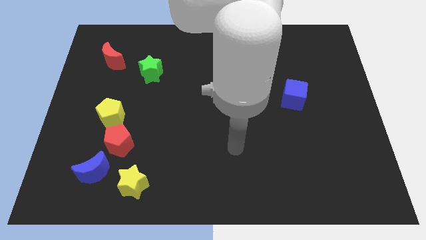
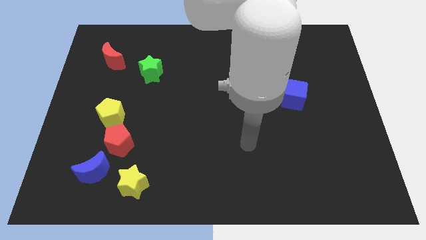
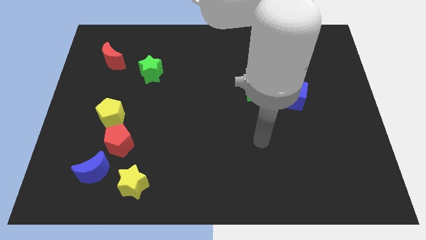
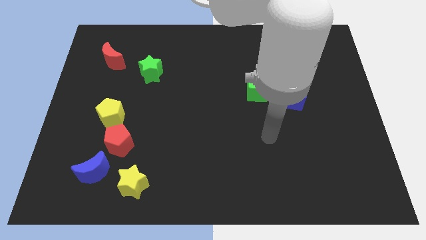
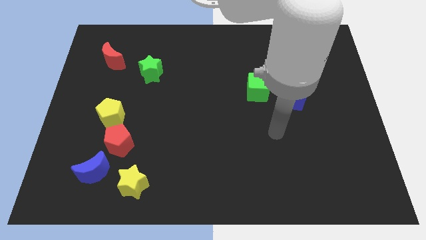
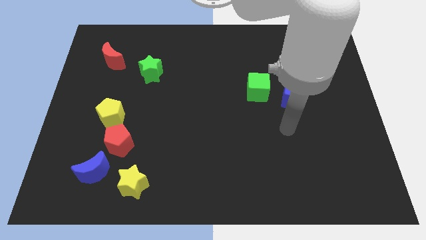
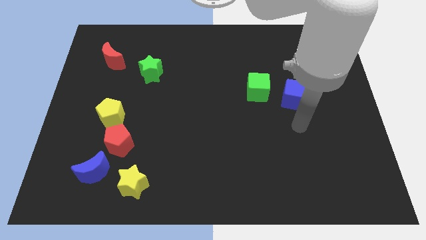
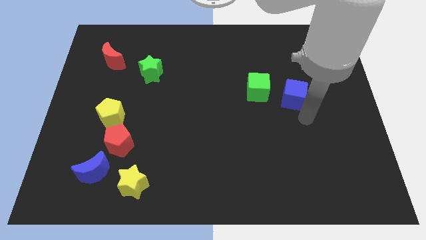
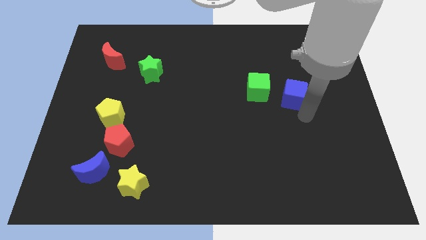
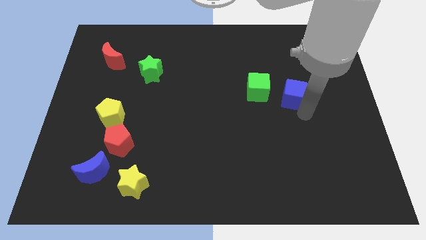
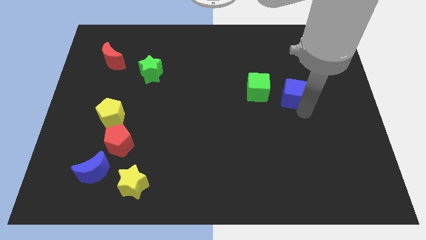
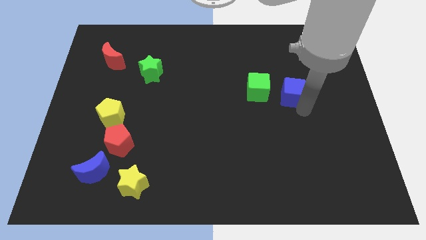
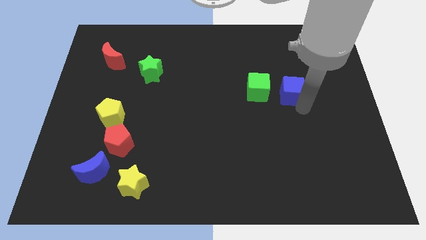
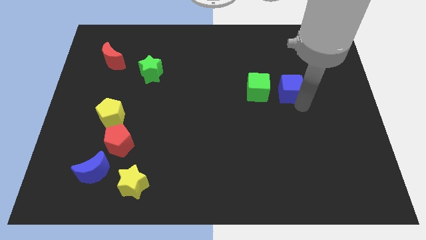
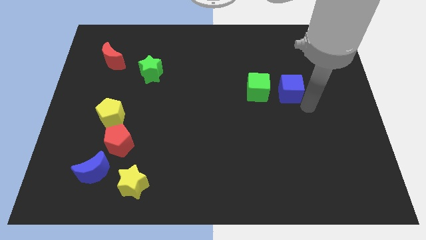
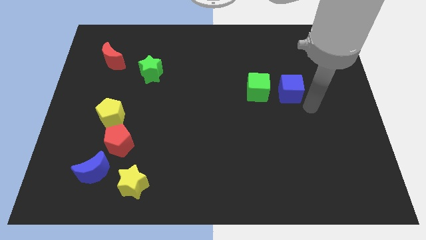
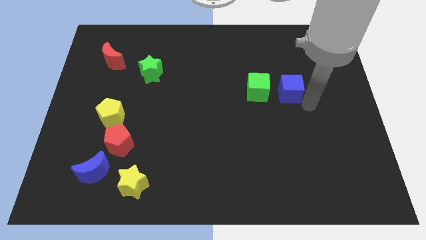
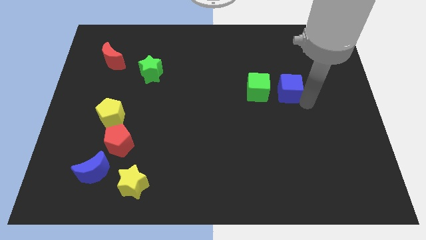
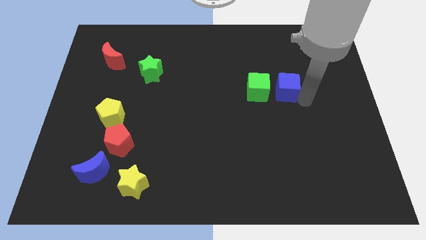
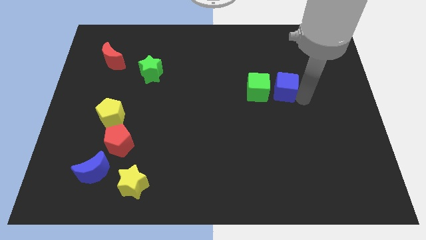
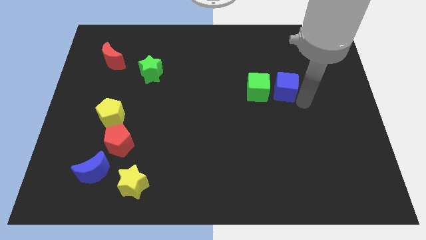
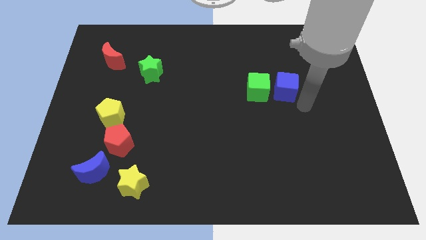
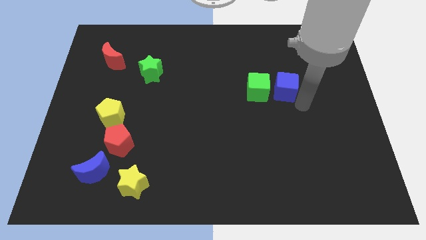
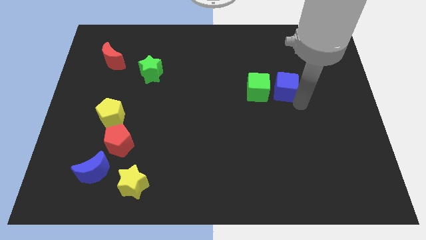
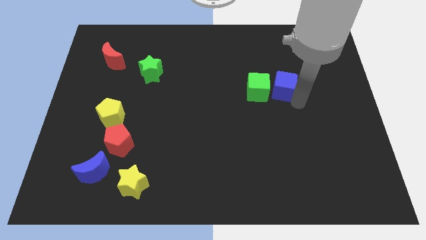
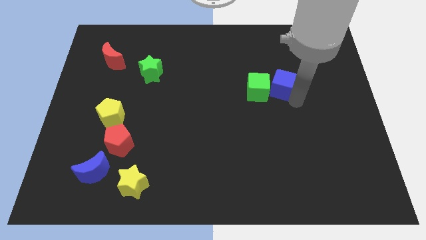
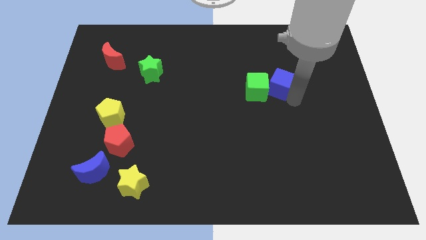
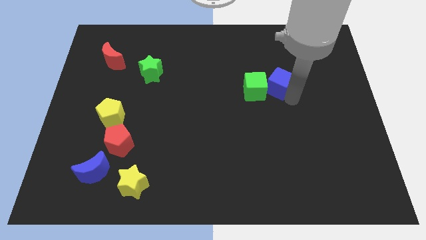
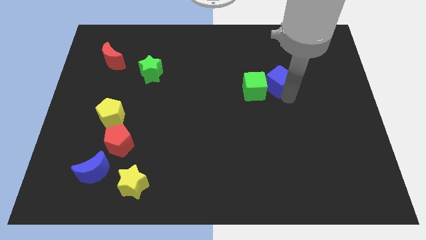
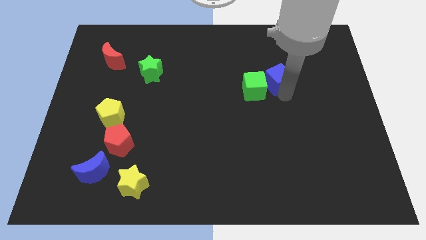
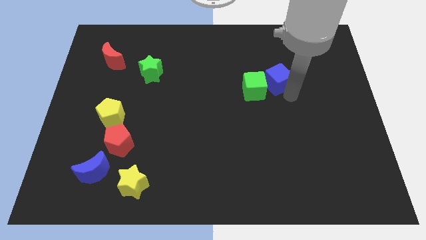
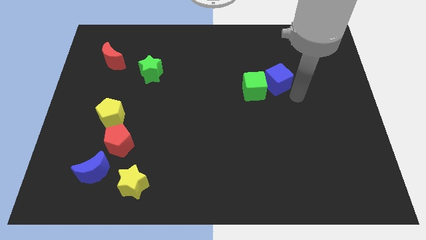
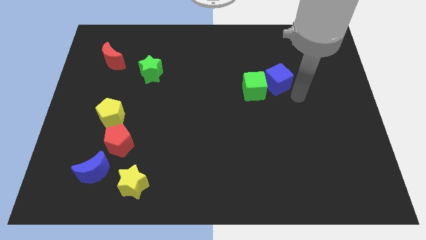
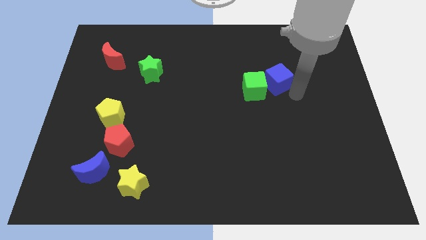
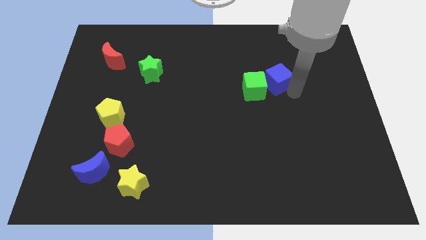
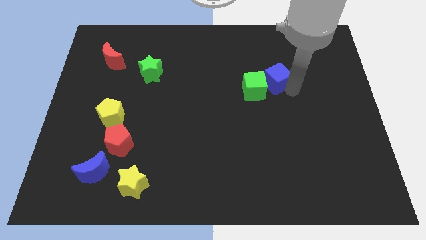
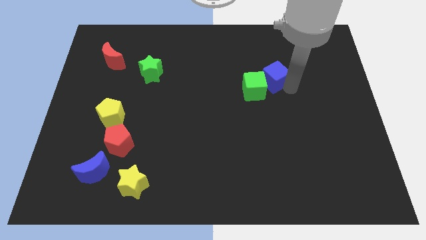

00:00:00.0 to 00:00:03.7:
move the blue cube a little upwards and then to the left

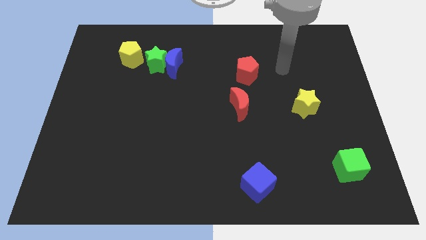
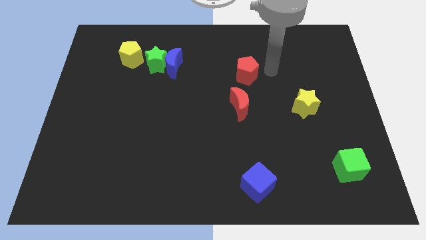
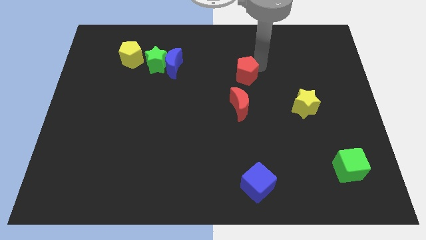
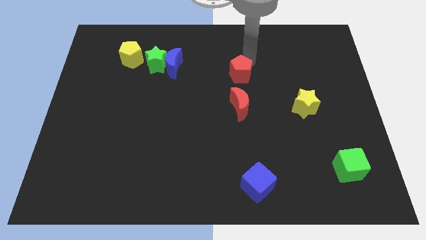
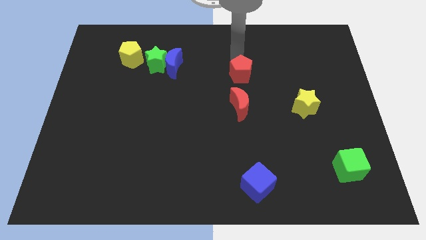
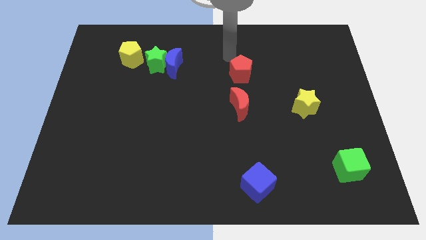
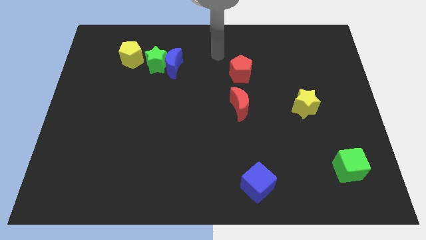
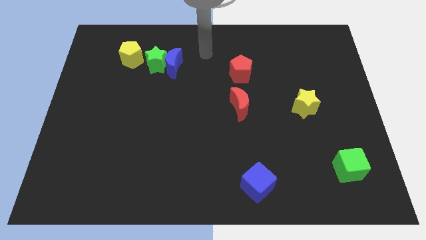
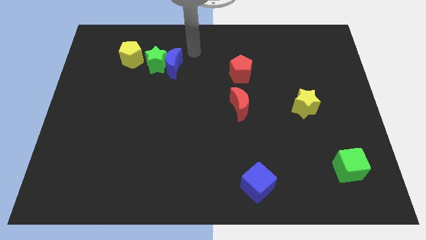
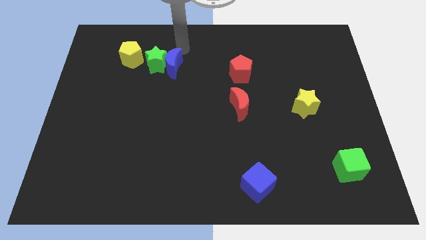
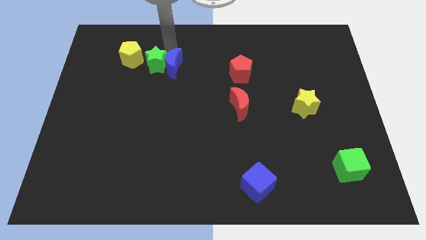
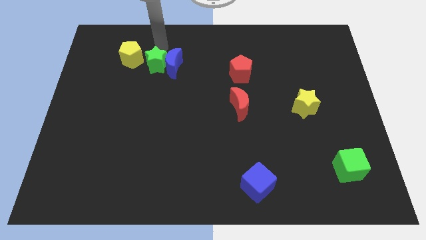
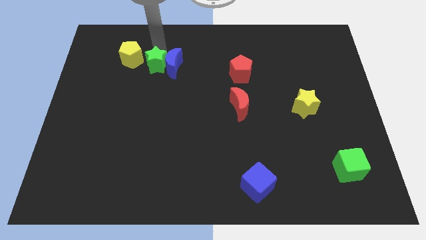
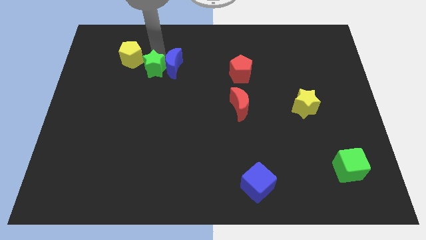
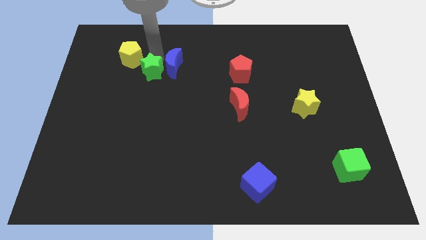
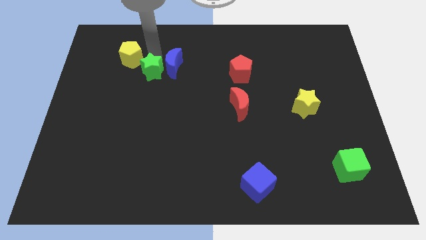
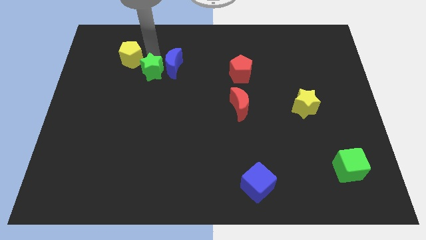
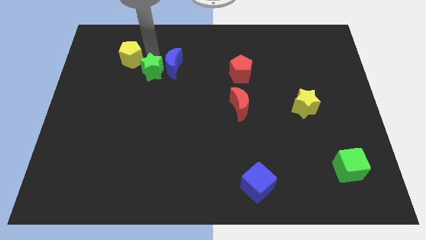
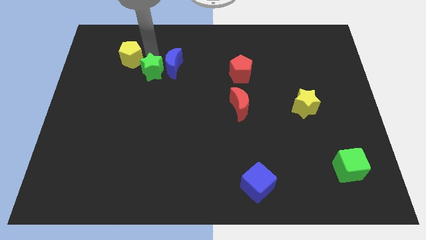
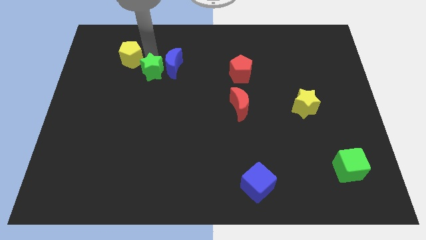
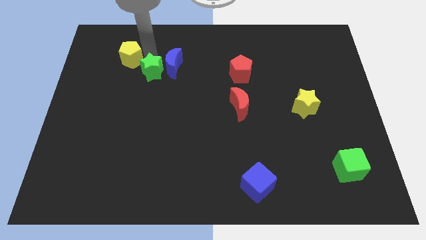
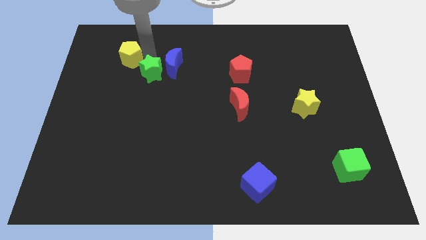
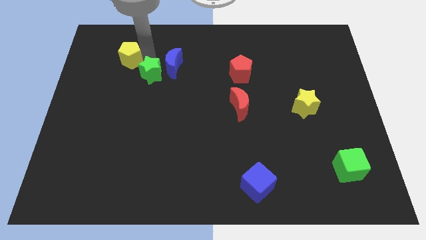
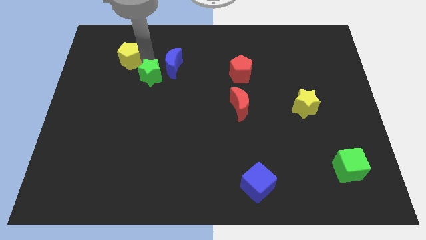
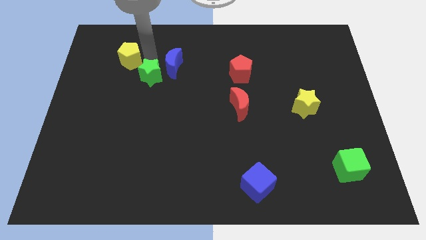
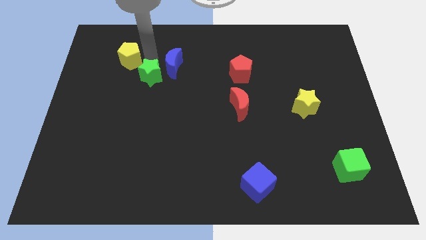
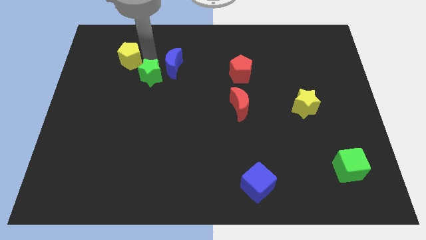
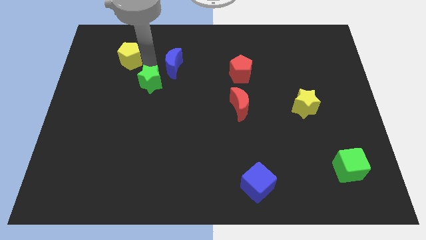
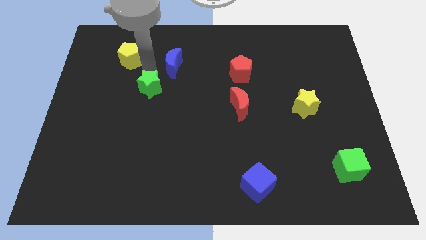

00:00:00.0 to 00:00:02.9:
slide the green star downwards a little

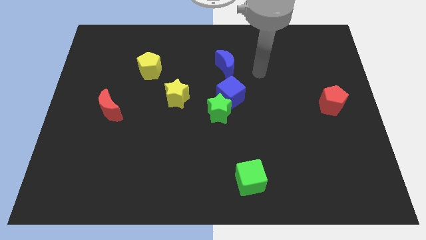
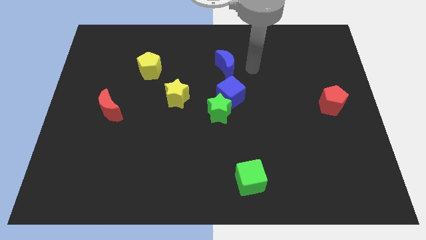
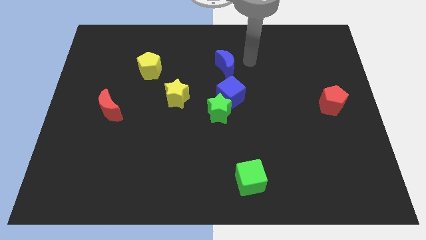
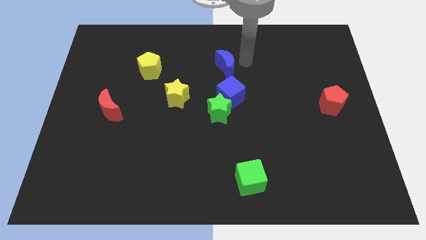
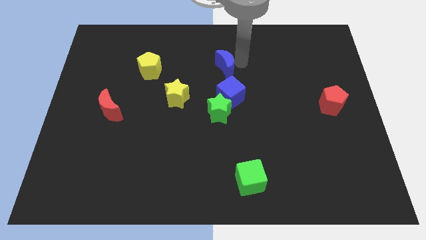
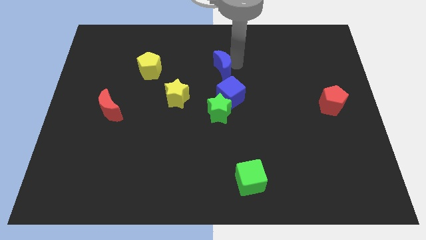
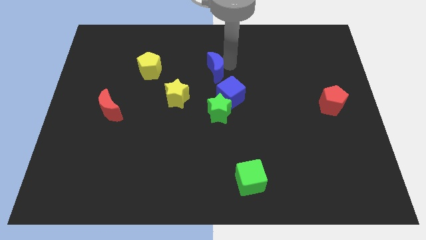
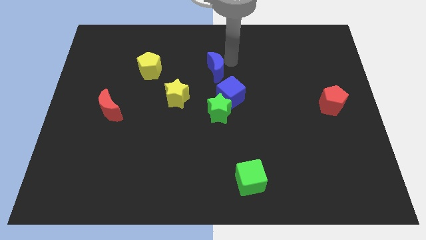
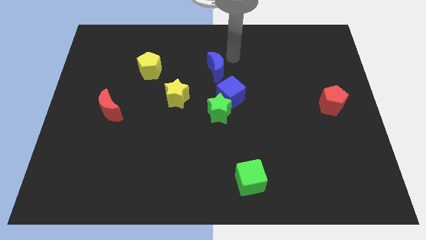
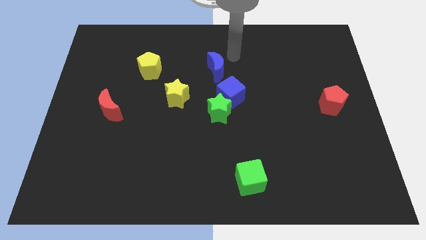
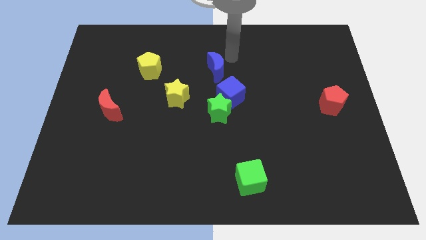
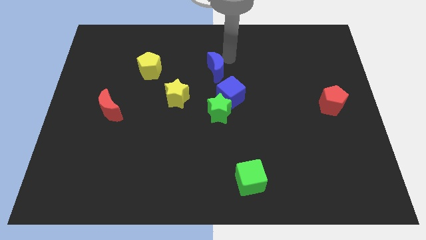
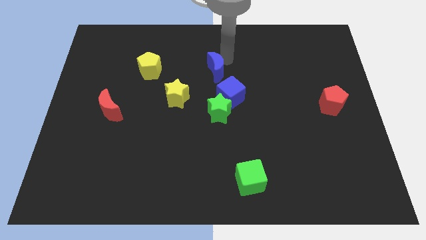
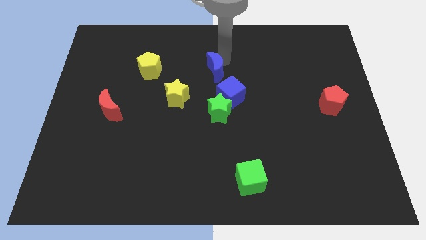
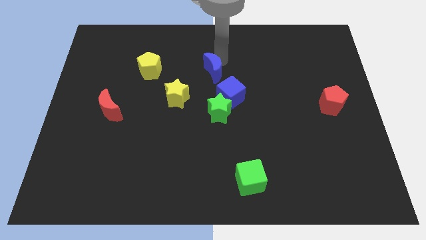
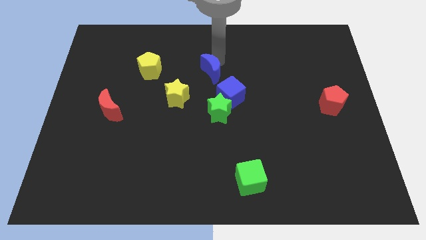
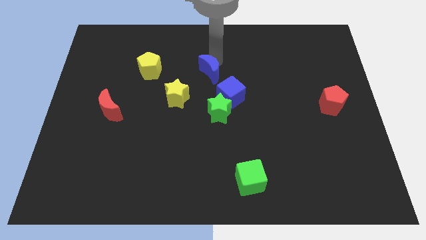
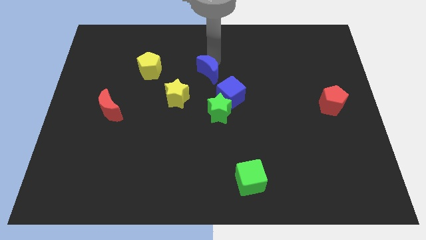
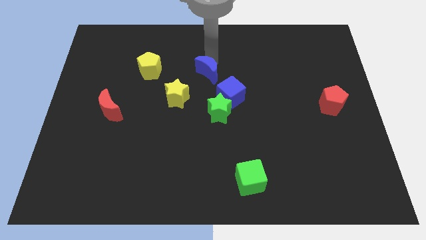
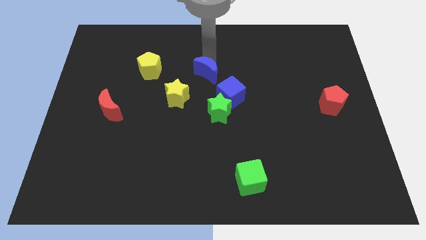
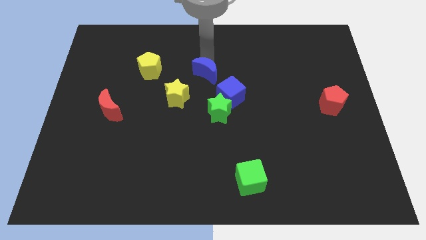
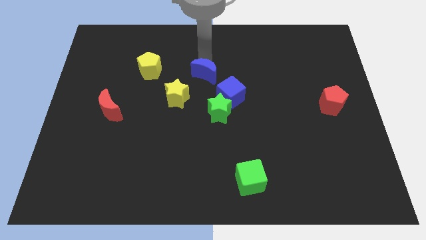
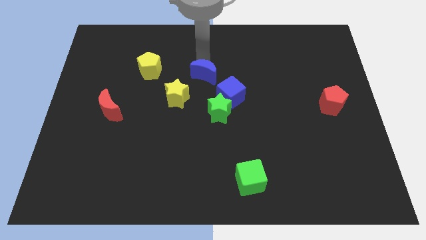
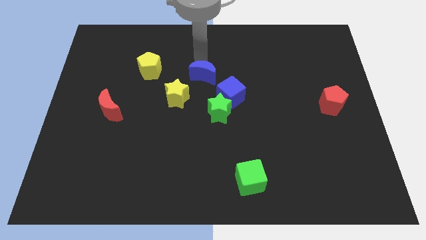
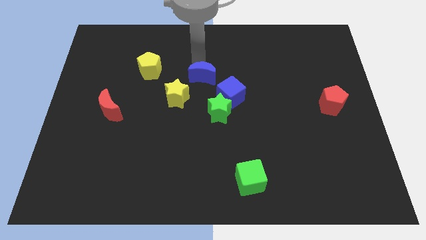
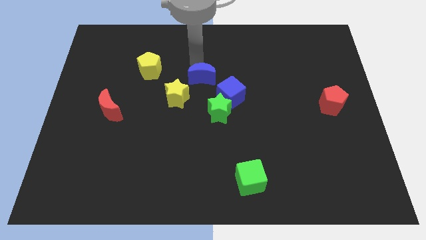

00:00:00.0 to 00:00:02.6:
push the blue moon slightly downwards and left diagonally
